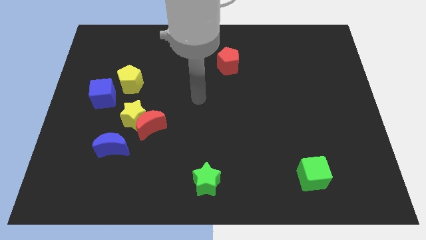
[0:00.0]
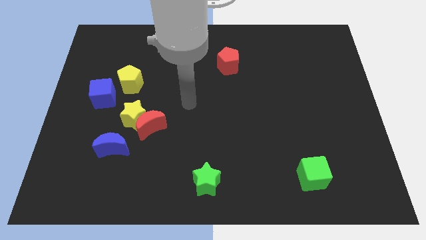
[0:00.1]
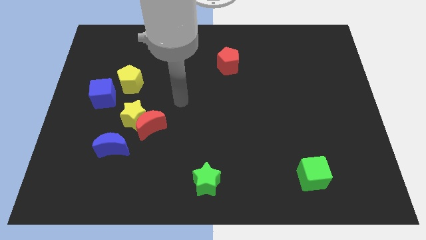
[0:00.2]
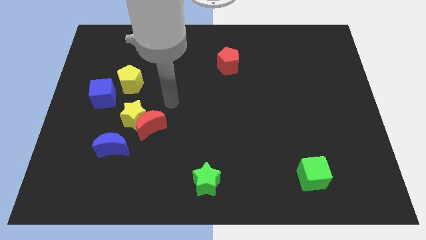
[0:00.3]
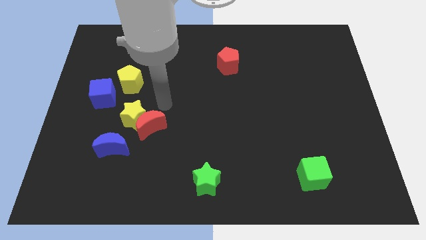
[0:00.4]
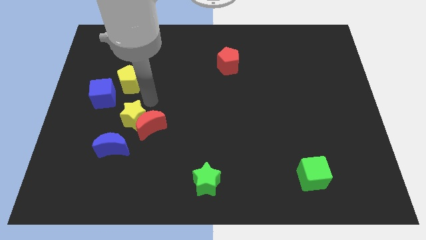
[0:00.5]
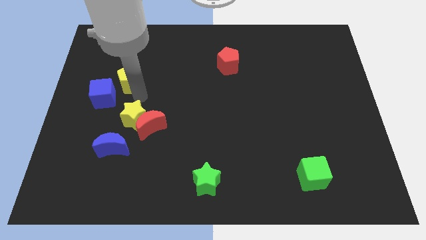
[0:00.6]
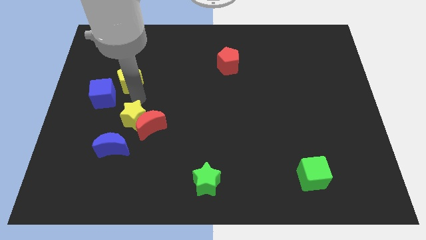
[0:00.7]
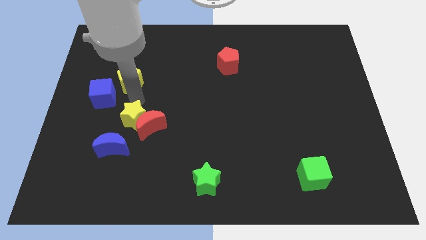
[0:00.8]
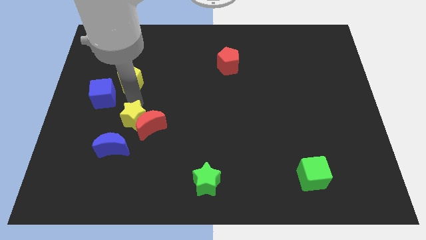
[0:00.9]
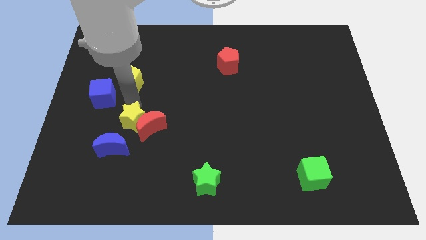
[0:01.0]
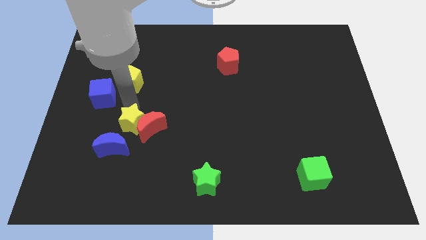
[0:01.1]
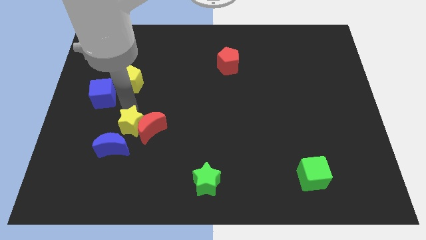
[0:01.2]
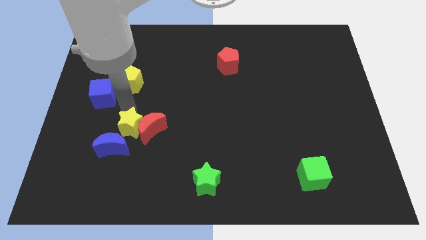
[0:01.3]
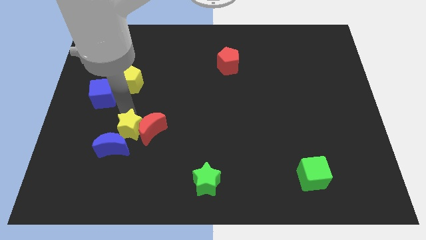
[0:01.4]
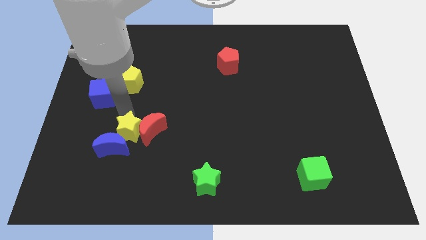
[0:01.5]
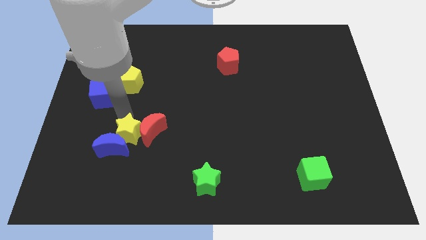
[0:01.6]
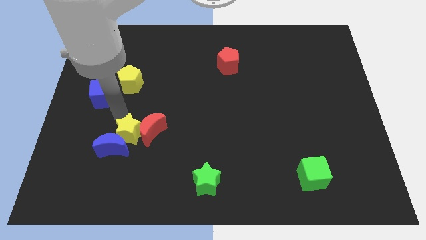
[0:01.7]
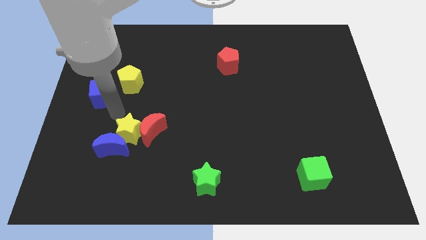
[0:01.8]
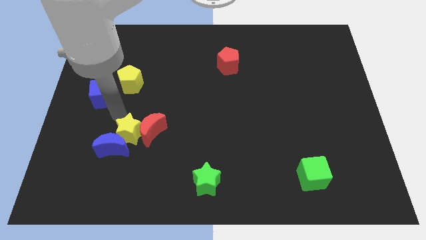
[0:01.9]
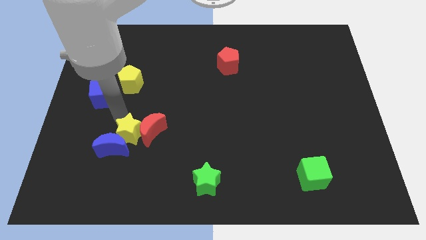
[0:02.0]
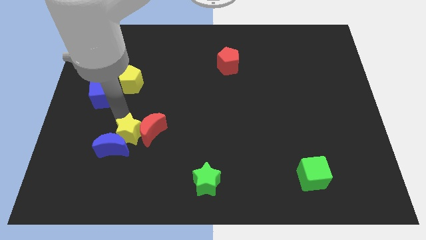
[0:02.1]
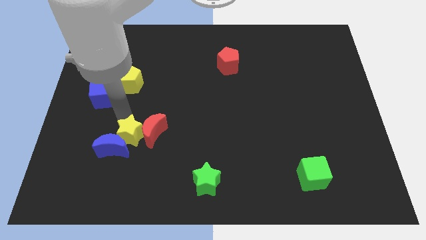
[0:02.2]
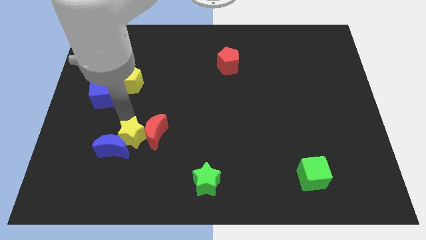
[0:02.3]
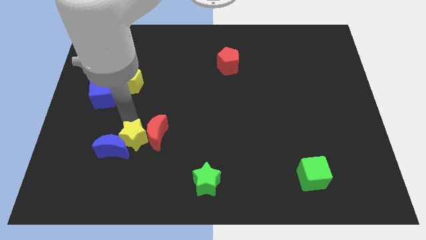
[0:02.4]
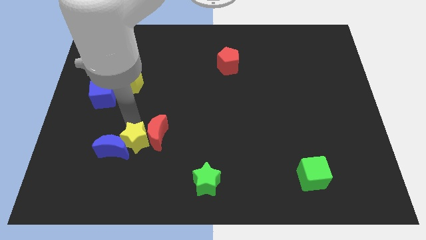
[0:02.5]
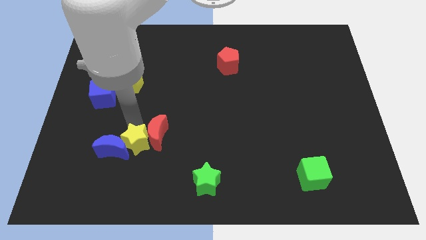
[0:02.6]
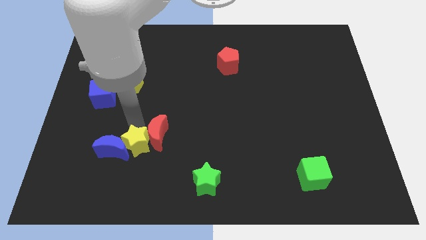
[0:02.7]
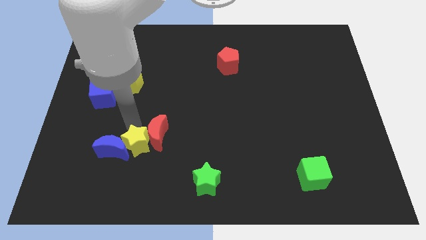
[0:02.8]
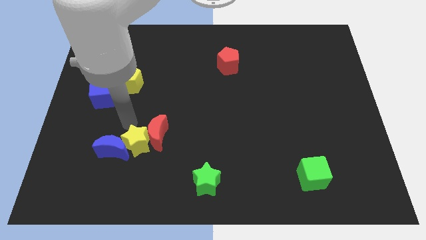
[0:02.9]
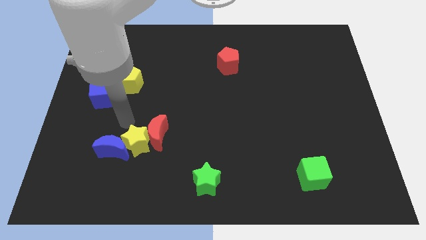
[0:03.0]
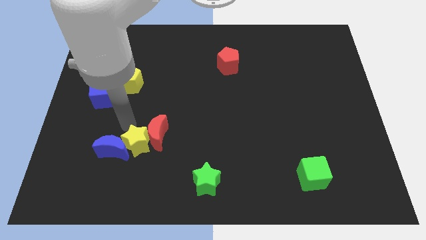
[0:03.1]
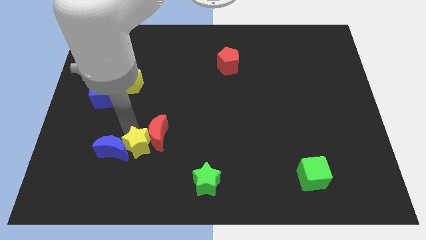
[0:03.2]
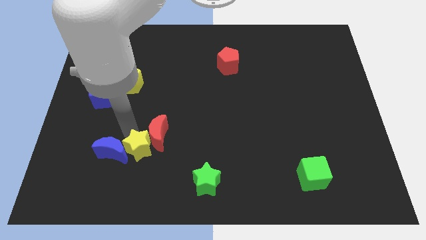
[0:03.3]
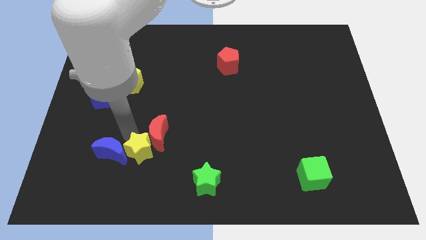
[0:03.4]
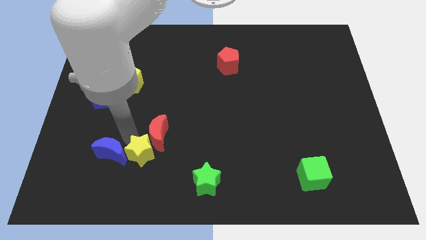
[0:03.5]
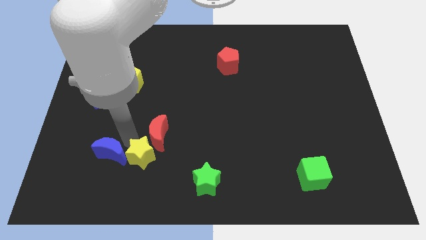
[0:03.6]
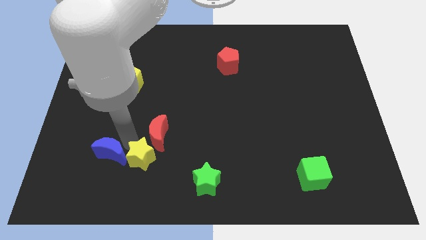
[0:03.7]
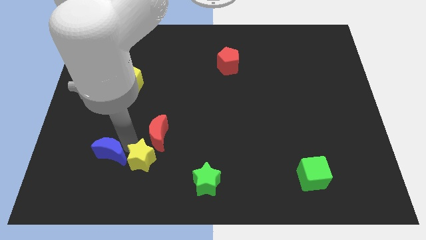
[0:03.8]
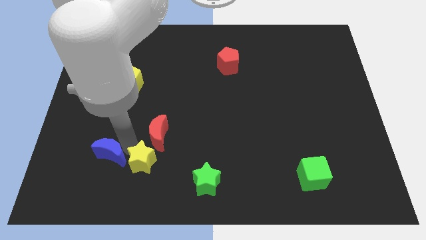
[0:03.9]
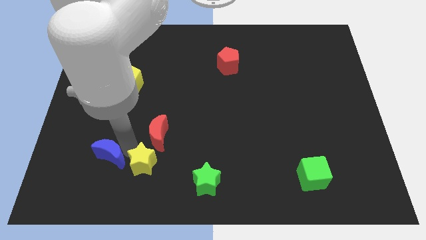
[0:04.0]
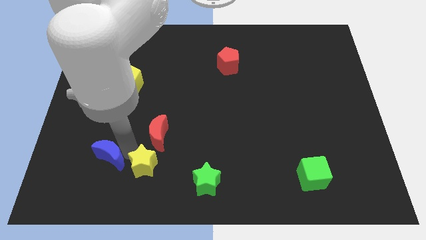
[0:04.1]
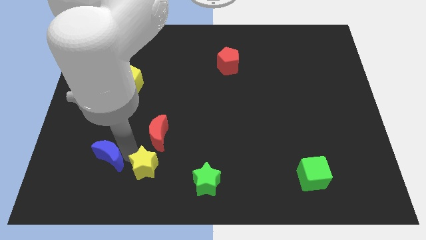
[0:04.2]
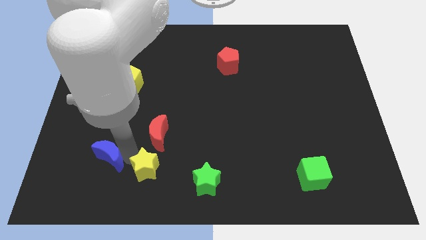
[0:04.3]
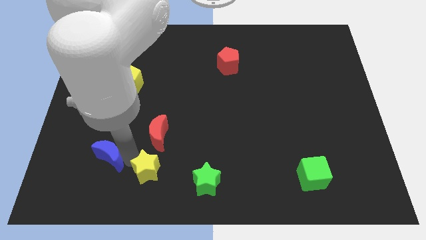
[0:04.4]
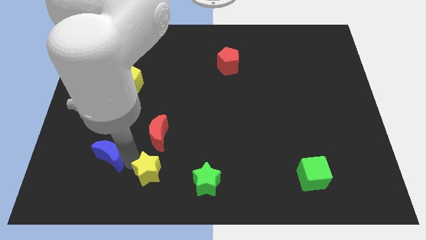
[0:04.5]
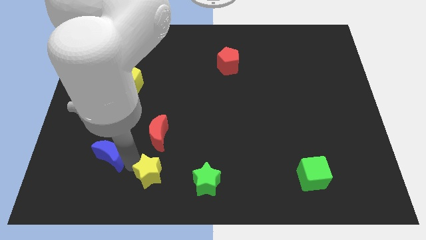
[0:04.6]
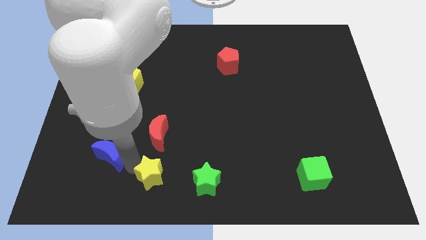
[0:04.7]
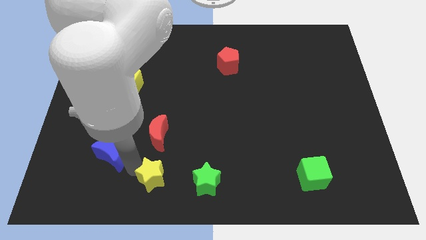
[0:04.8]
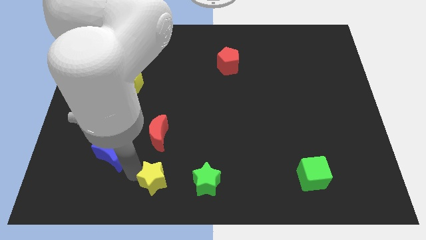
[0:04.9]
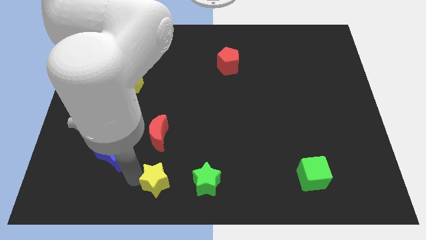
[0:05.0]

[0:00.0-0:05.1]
push the yellow star to the bottom

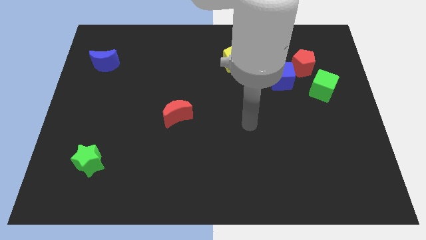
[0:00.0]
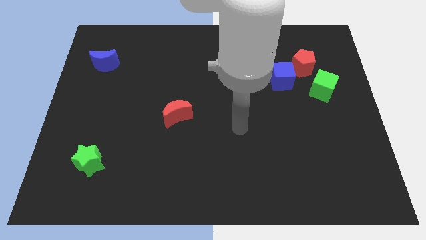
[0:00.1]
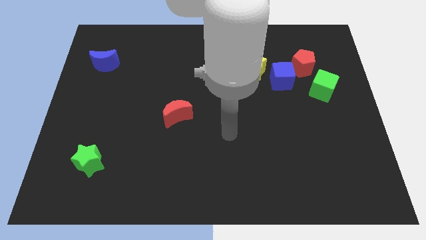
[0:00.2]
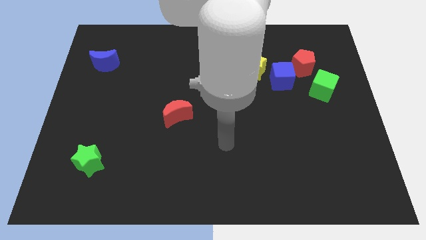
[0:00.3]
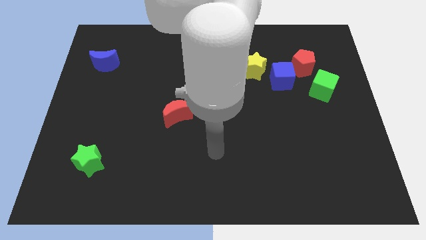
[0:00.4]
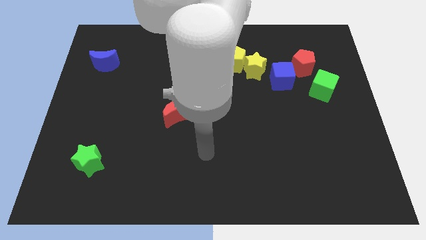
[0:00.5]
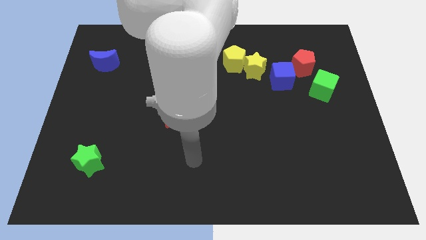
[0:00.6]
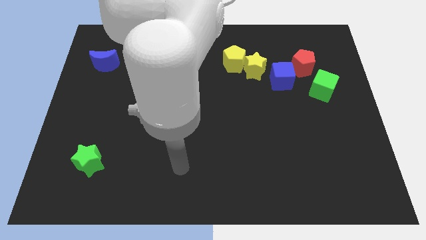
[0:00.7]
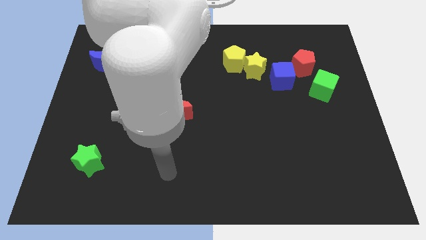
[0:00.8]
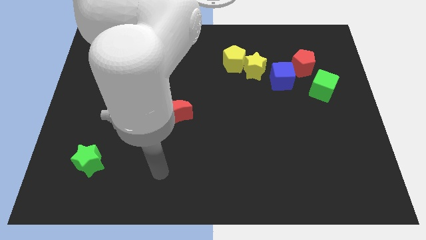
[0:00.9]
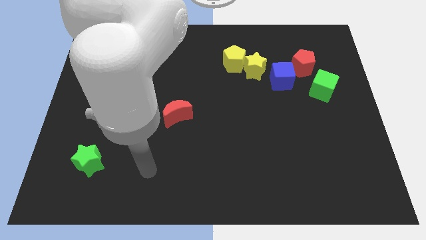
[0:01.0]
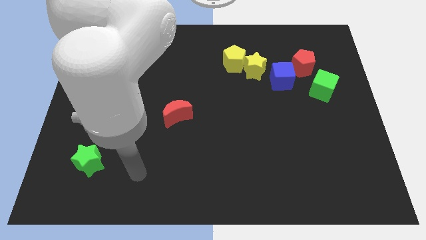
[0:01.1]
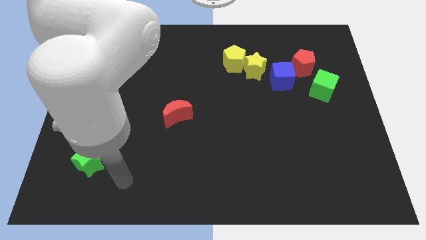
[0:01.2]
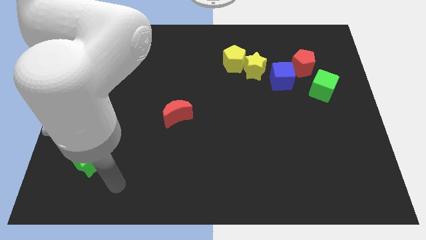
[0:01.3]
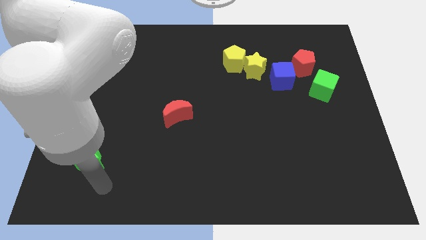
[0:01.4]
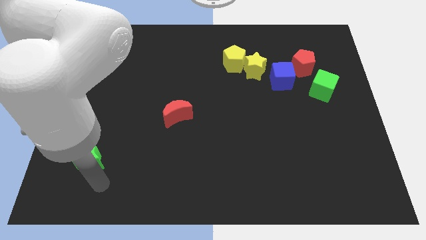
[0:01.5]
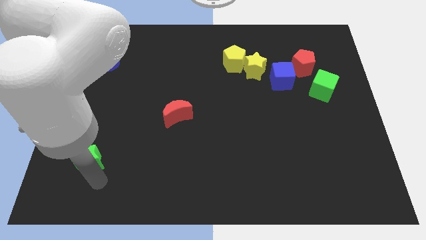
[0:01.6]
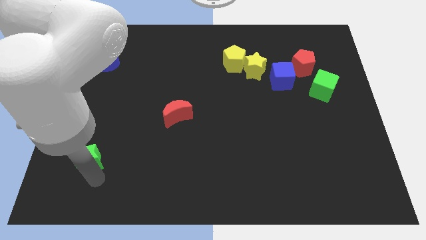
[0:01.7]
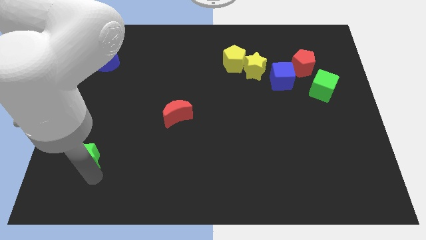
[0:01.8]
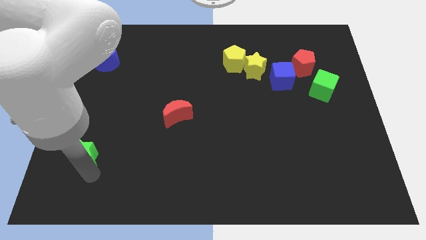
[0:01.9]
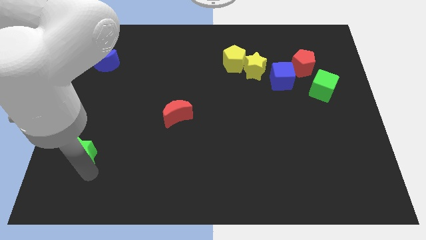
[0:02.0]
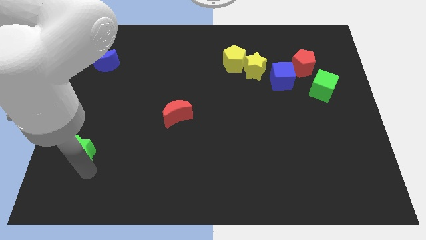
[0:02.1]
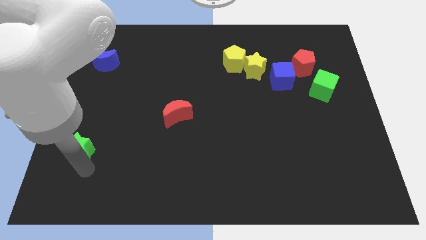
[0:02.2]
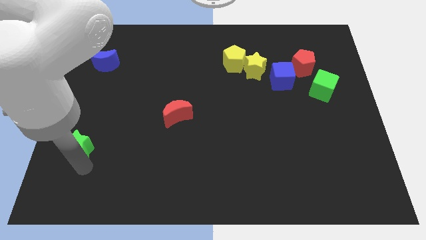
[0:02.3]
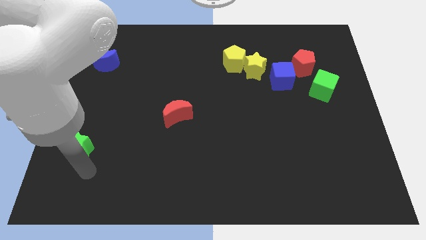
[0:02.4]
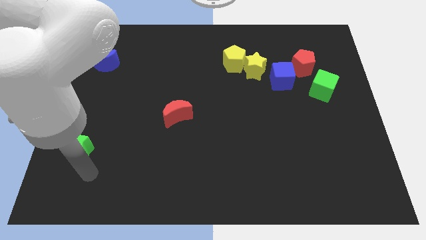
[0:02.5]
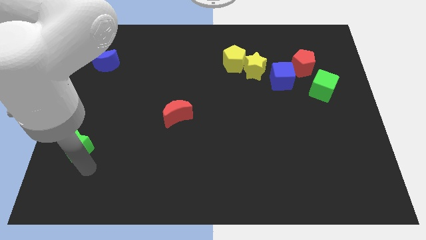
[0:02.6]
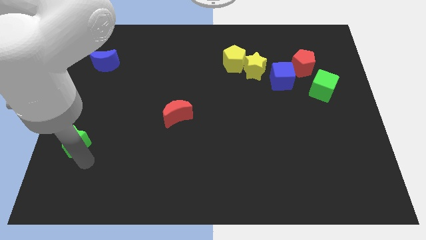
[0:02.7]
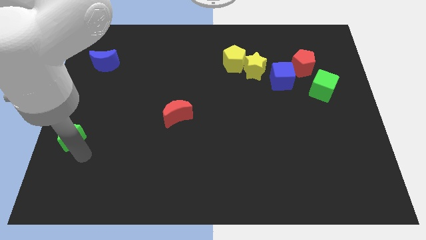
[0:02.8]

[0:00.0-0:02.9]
push the green star to the left side
